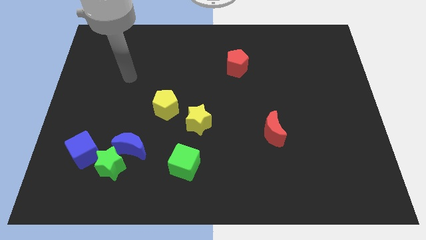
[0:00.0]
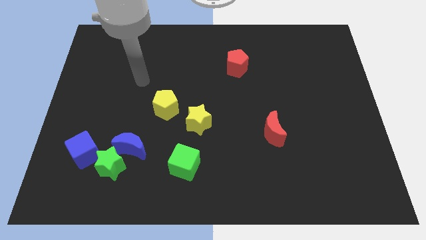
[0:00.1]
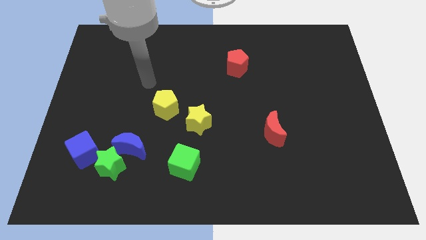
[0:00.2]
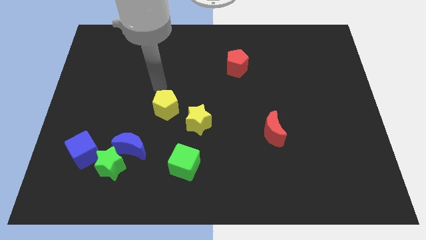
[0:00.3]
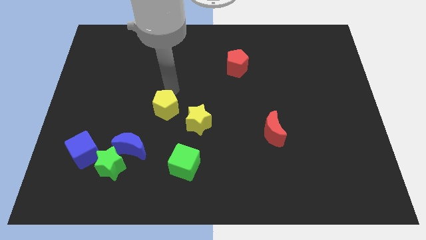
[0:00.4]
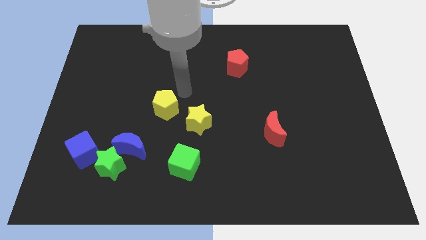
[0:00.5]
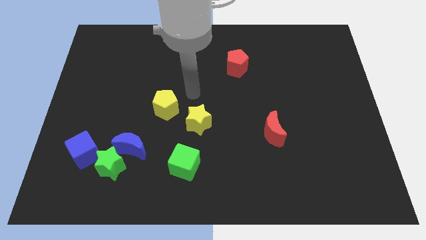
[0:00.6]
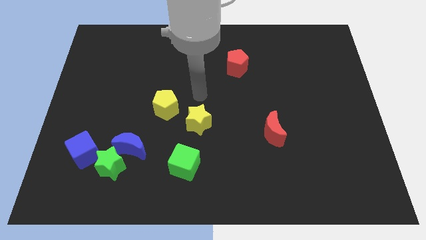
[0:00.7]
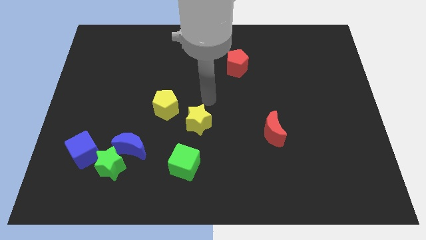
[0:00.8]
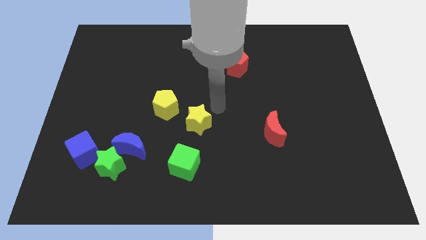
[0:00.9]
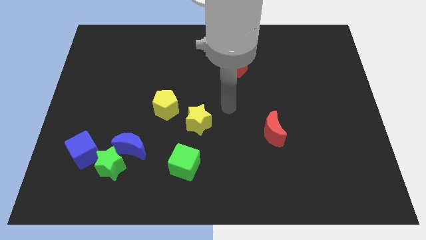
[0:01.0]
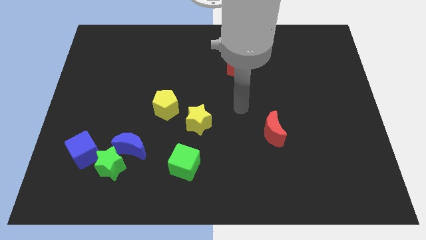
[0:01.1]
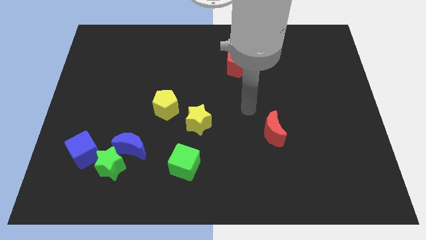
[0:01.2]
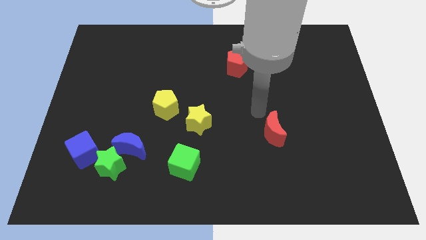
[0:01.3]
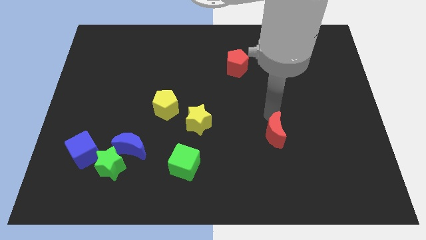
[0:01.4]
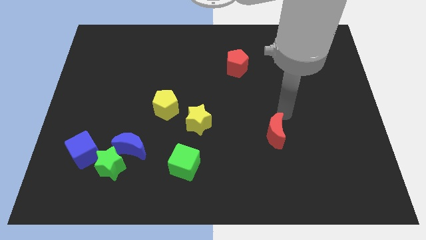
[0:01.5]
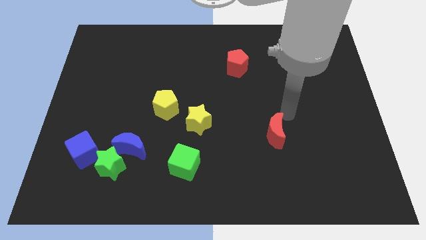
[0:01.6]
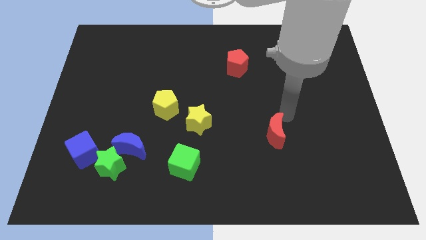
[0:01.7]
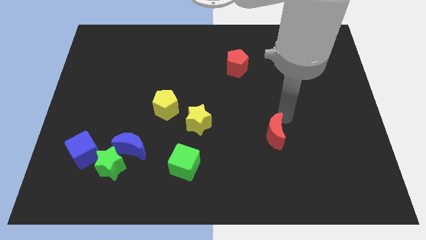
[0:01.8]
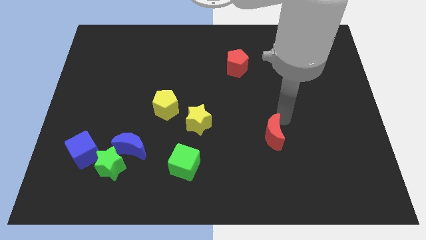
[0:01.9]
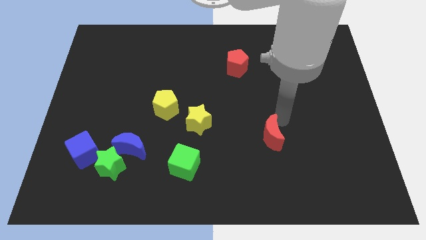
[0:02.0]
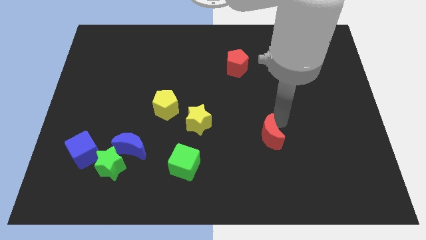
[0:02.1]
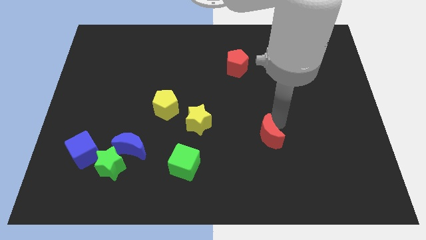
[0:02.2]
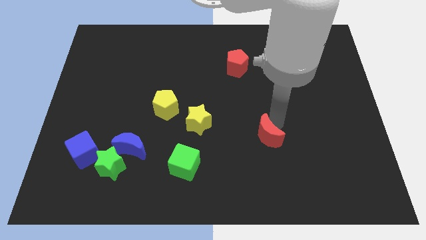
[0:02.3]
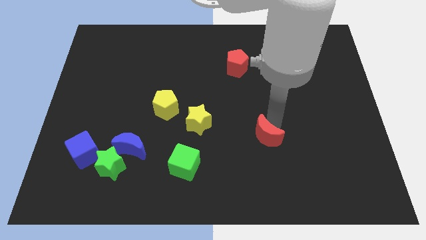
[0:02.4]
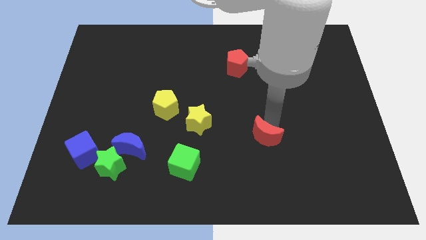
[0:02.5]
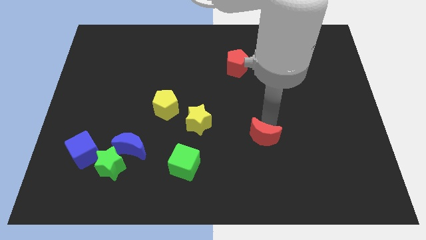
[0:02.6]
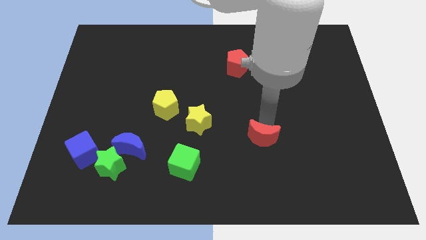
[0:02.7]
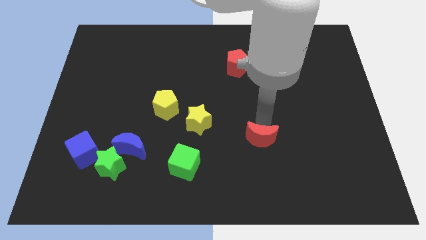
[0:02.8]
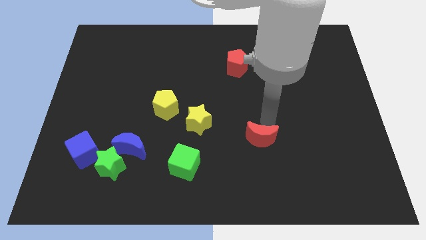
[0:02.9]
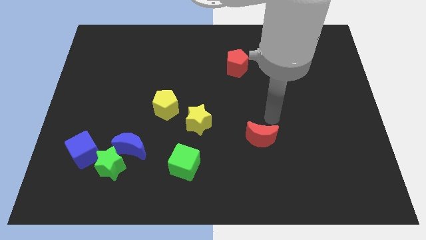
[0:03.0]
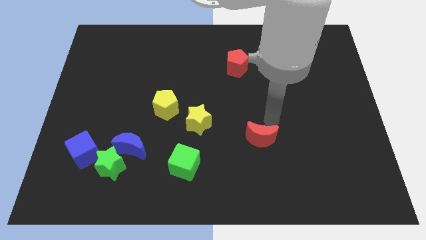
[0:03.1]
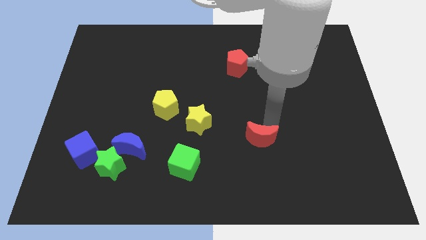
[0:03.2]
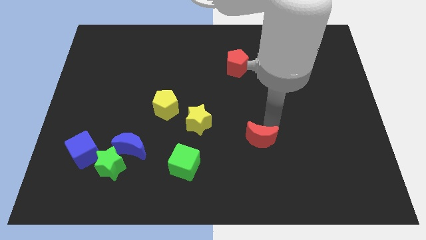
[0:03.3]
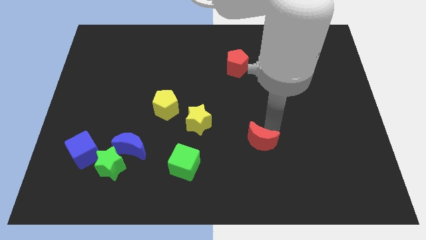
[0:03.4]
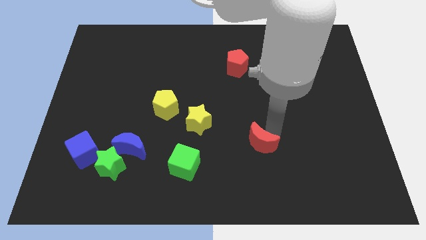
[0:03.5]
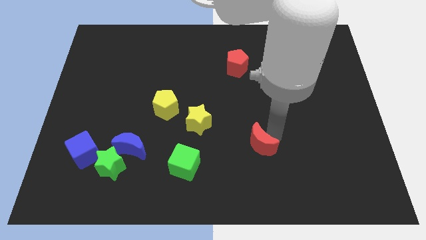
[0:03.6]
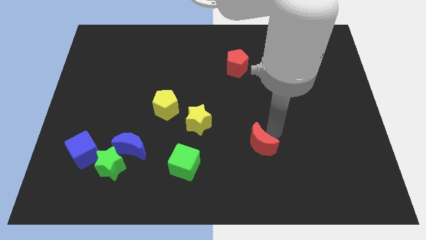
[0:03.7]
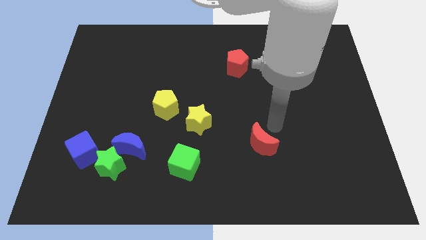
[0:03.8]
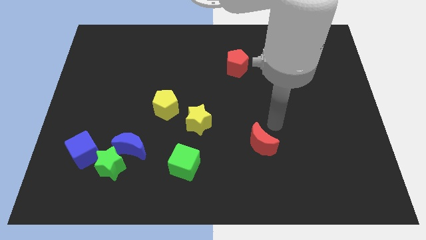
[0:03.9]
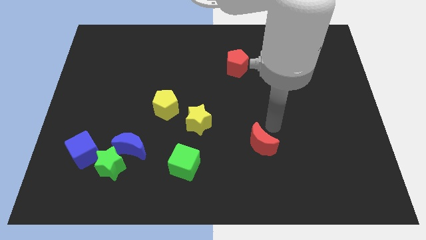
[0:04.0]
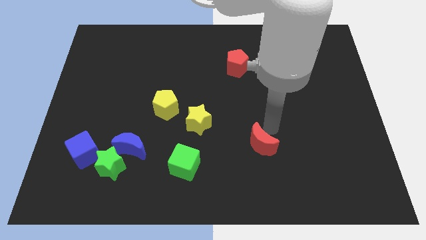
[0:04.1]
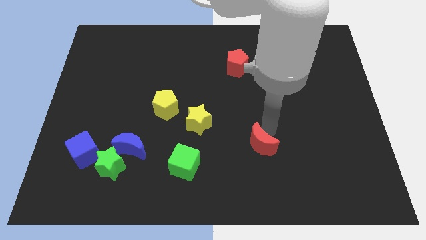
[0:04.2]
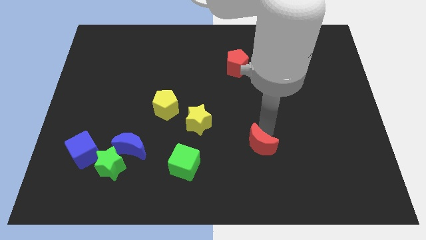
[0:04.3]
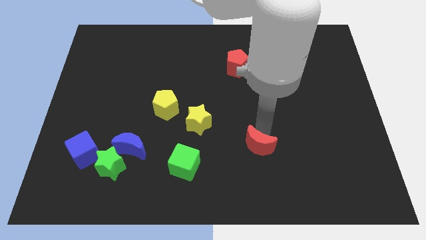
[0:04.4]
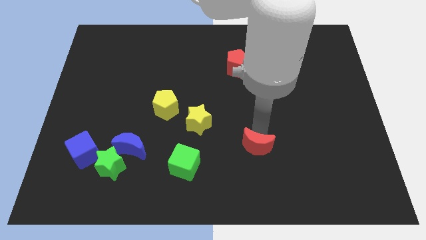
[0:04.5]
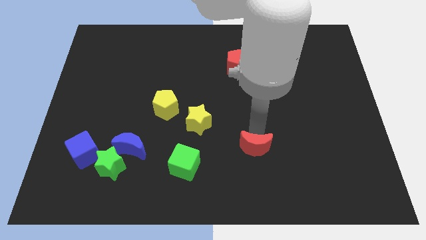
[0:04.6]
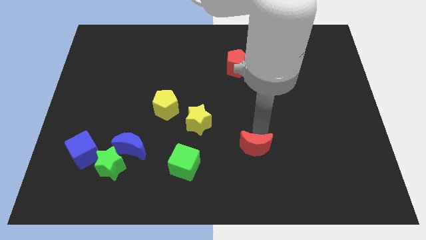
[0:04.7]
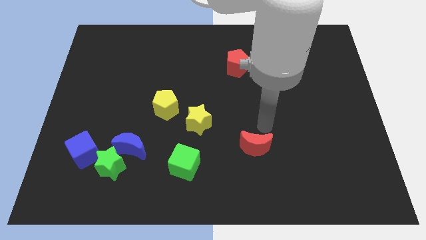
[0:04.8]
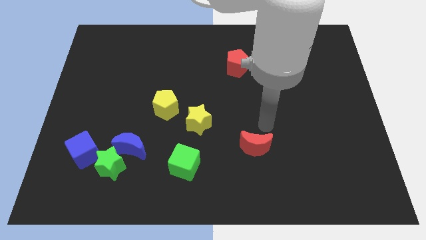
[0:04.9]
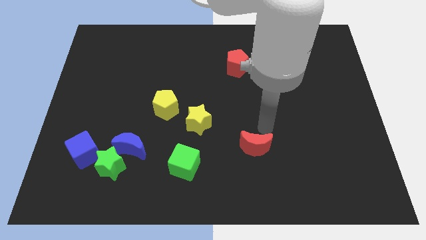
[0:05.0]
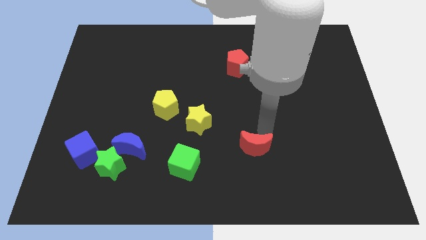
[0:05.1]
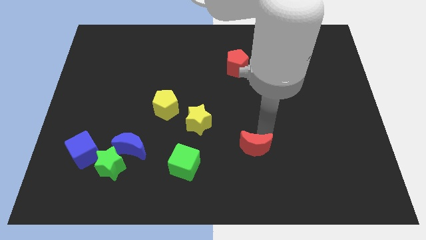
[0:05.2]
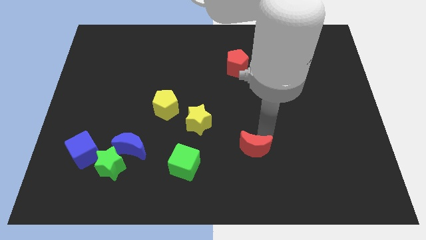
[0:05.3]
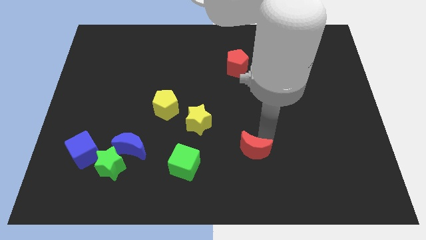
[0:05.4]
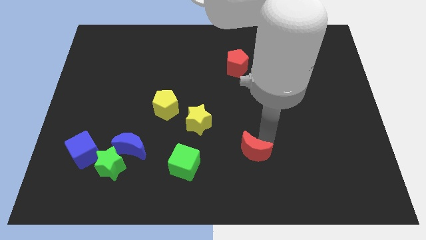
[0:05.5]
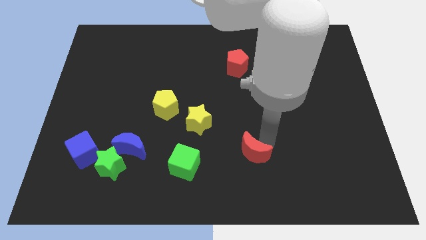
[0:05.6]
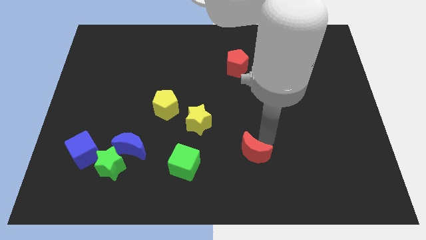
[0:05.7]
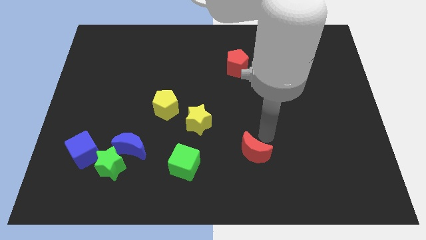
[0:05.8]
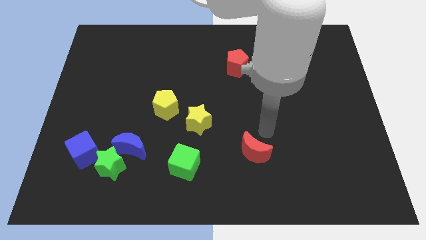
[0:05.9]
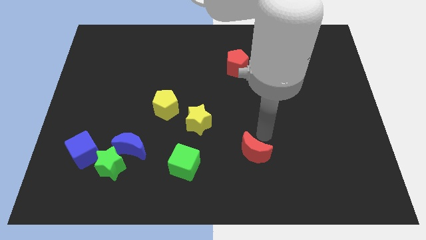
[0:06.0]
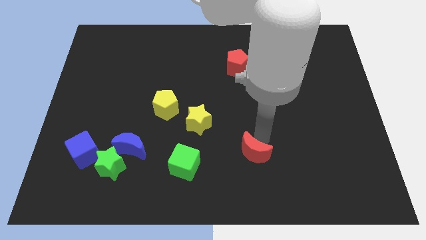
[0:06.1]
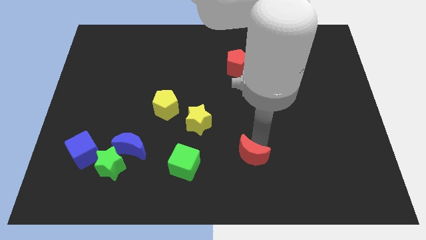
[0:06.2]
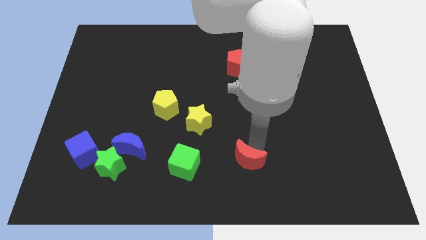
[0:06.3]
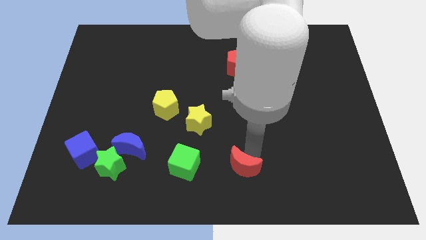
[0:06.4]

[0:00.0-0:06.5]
push the red moon to the bottom

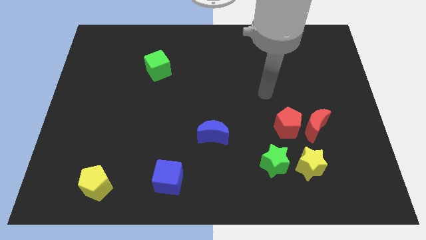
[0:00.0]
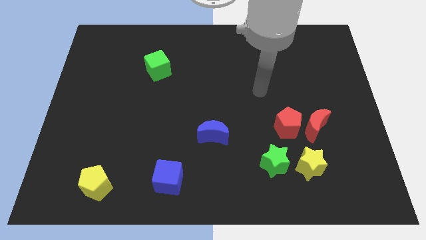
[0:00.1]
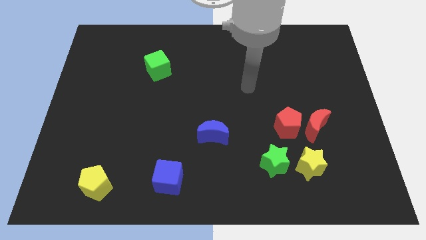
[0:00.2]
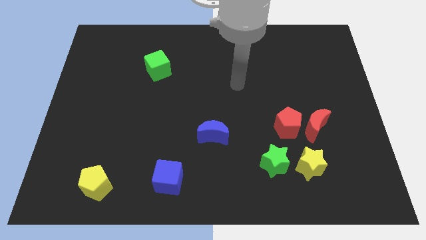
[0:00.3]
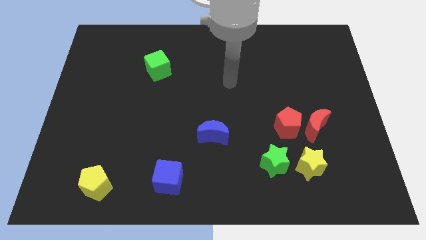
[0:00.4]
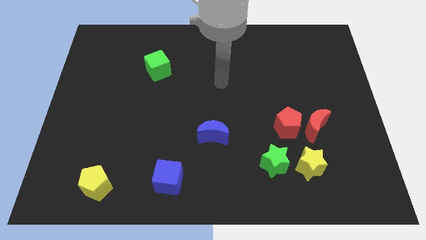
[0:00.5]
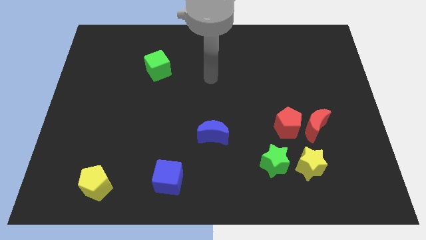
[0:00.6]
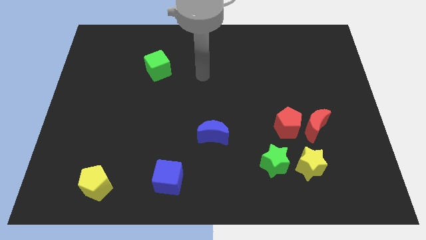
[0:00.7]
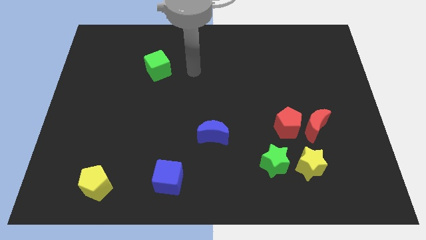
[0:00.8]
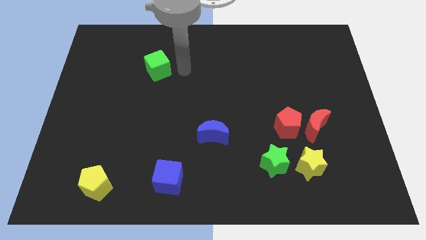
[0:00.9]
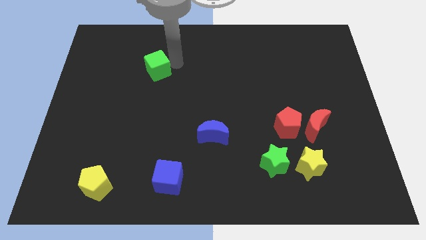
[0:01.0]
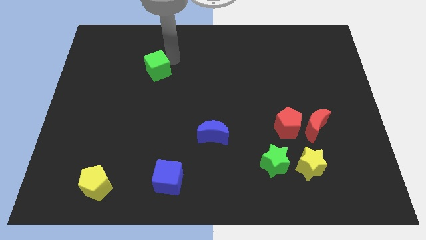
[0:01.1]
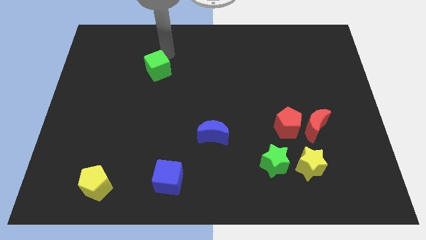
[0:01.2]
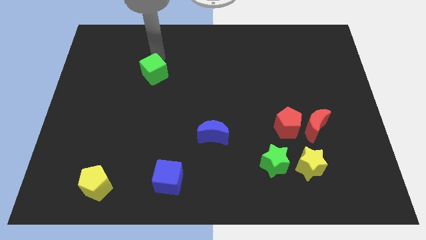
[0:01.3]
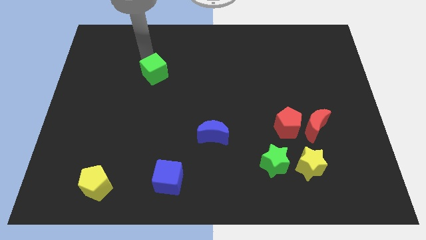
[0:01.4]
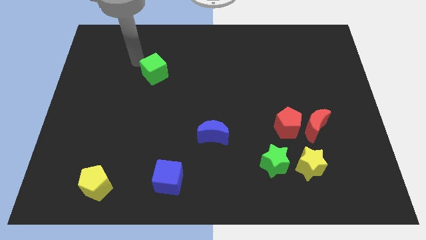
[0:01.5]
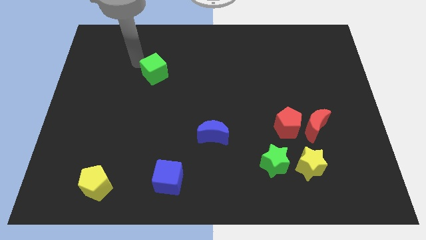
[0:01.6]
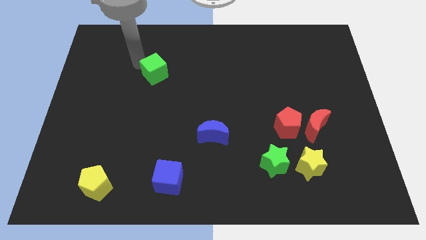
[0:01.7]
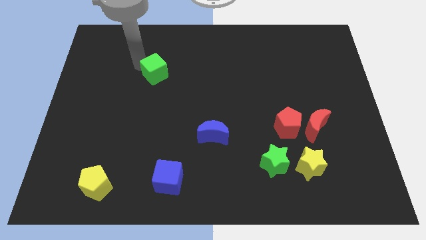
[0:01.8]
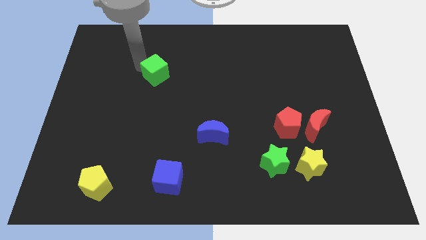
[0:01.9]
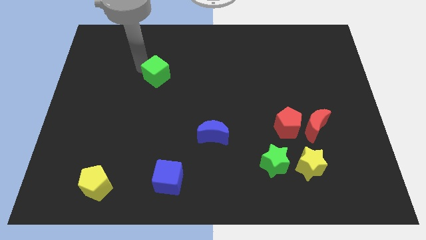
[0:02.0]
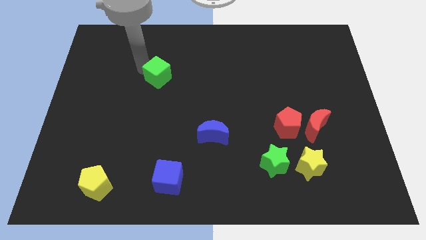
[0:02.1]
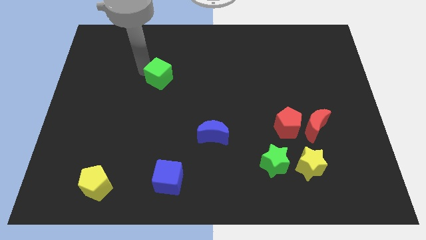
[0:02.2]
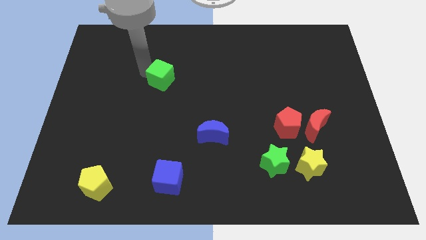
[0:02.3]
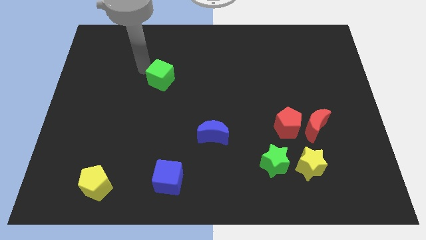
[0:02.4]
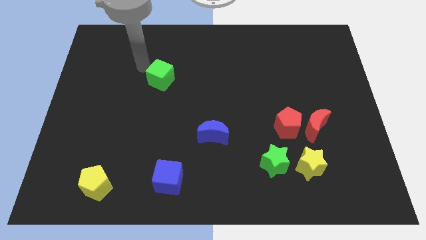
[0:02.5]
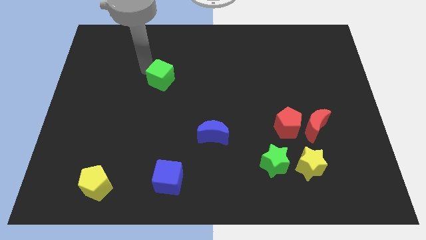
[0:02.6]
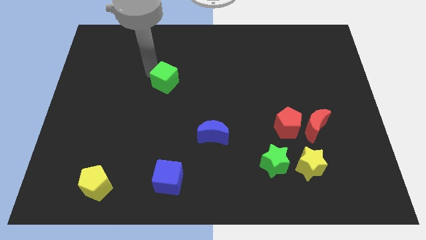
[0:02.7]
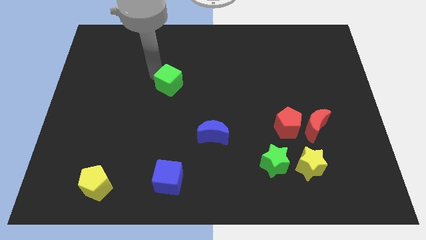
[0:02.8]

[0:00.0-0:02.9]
slide the green cube to the middle of the board
